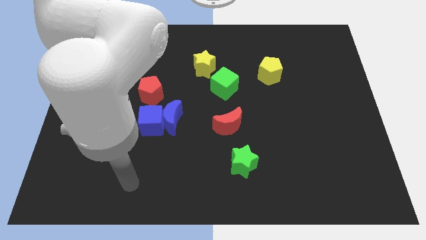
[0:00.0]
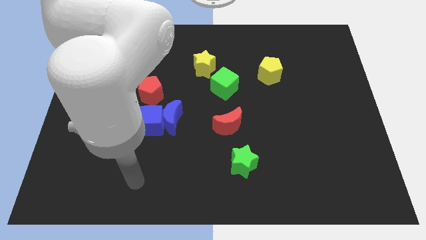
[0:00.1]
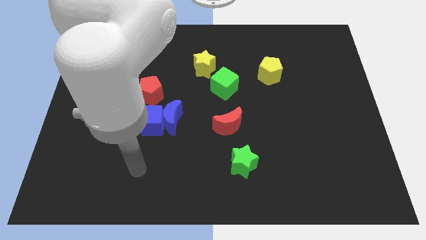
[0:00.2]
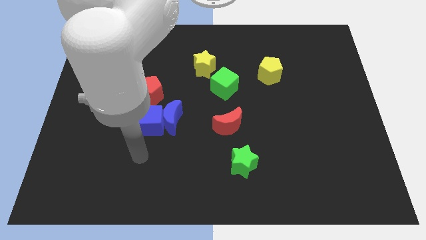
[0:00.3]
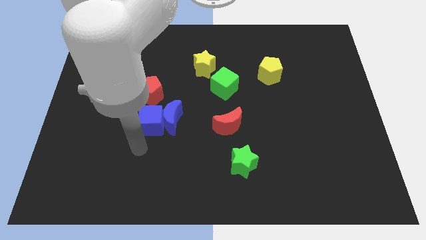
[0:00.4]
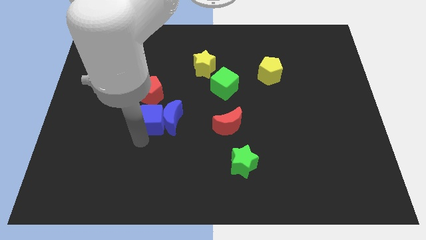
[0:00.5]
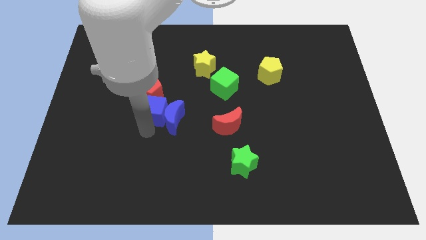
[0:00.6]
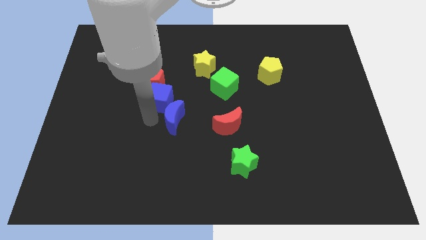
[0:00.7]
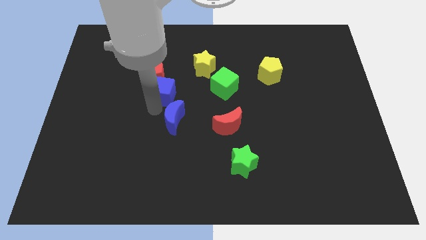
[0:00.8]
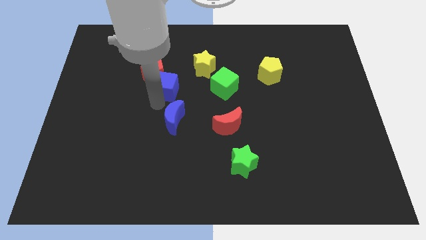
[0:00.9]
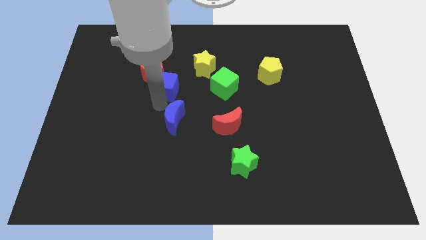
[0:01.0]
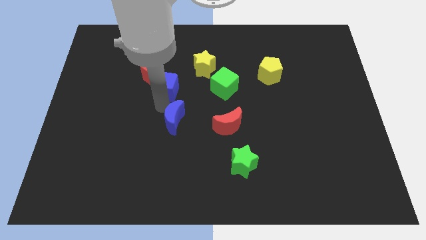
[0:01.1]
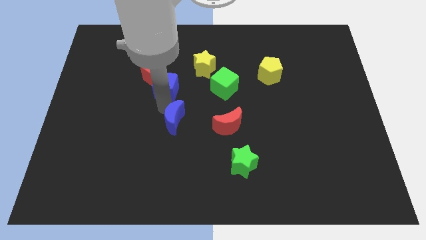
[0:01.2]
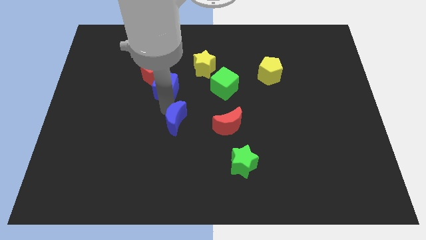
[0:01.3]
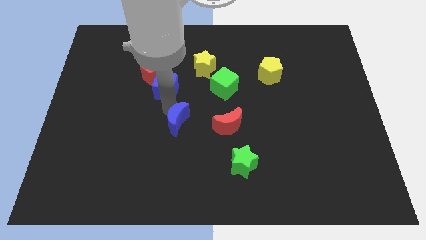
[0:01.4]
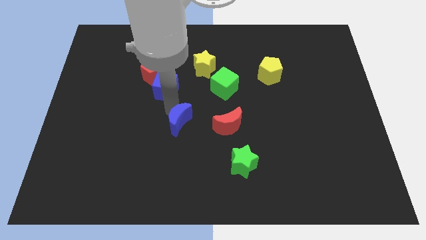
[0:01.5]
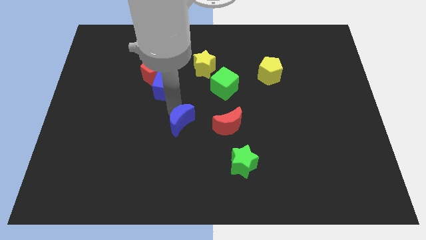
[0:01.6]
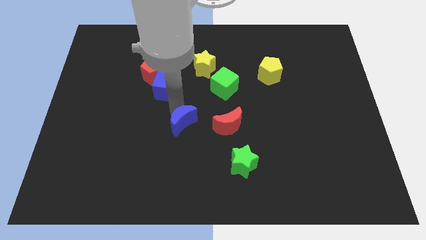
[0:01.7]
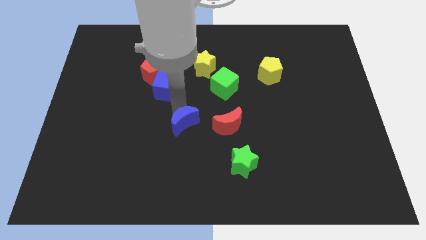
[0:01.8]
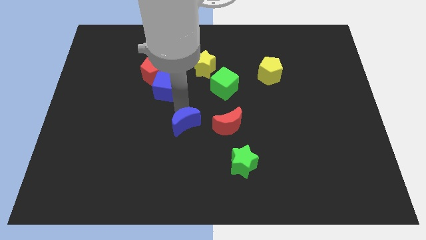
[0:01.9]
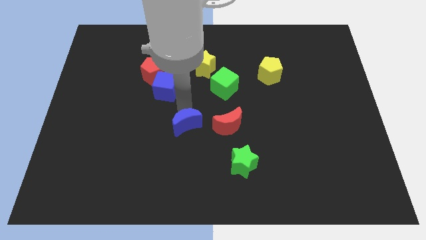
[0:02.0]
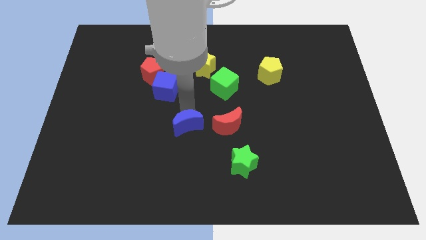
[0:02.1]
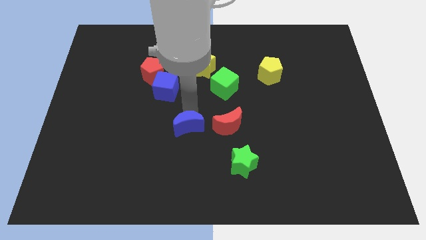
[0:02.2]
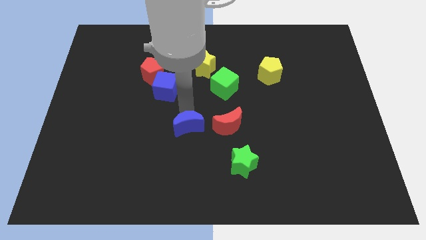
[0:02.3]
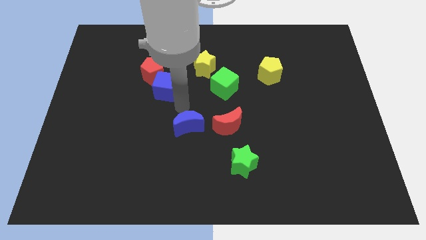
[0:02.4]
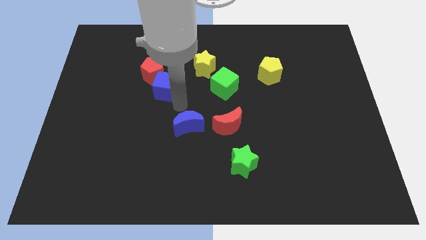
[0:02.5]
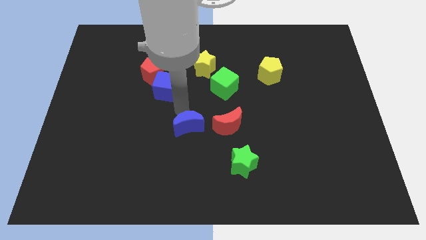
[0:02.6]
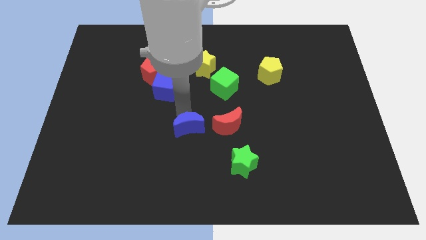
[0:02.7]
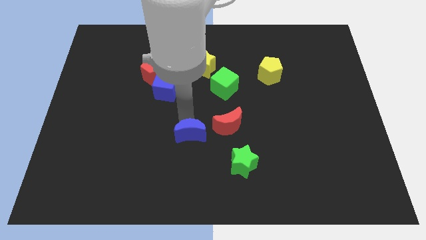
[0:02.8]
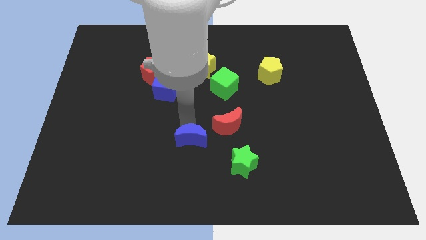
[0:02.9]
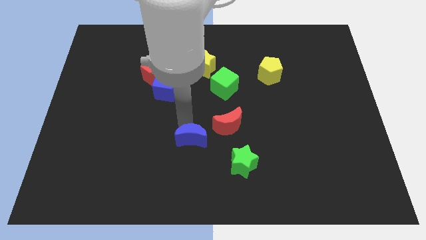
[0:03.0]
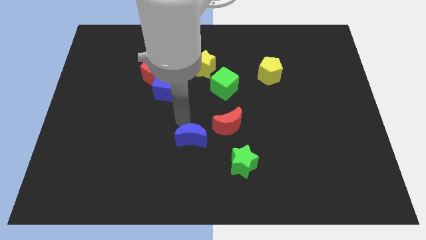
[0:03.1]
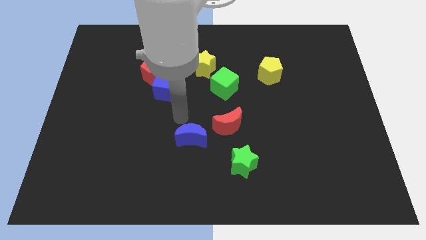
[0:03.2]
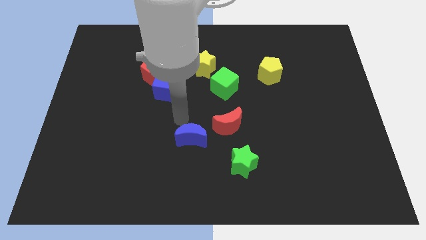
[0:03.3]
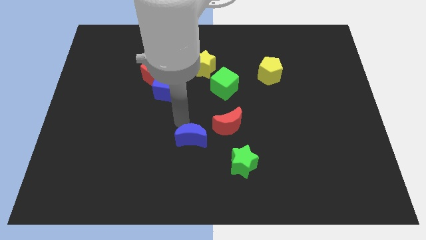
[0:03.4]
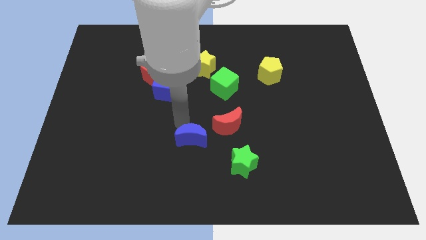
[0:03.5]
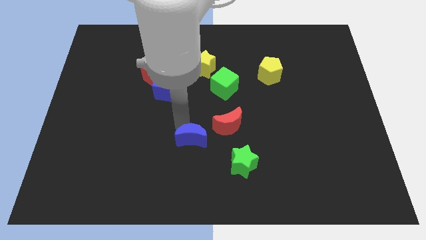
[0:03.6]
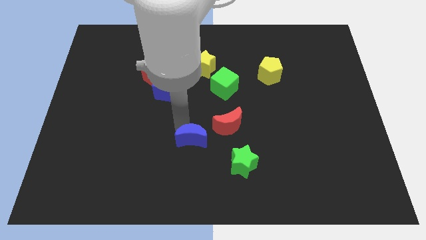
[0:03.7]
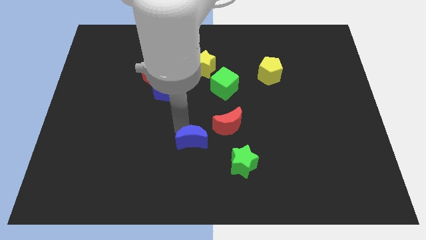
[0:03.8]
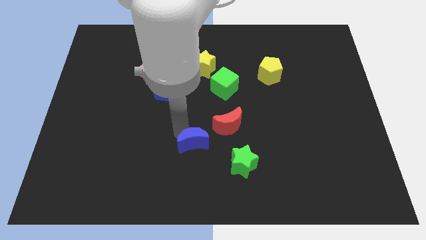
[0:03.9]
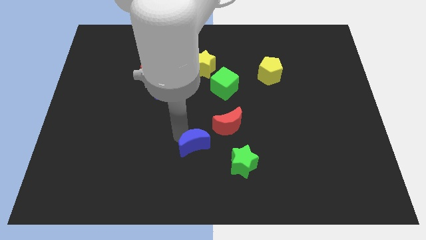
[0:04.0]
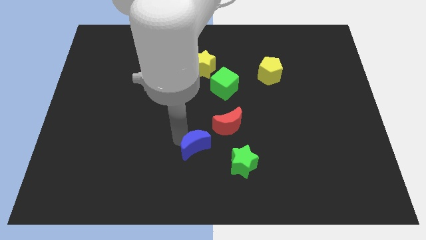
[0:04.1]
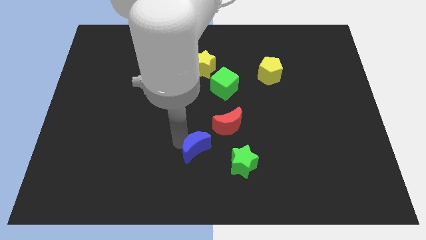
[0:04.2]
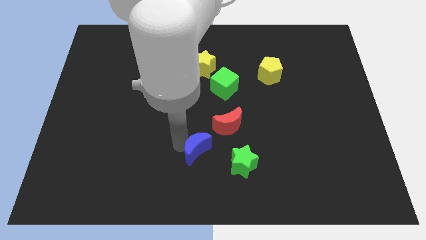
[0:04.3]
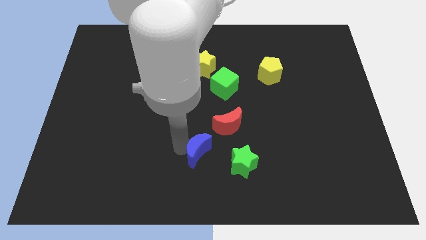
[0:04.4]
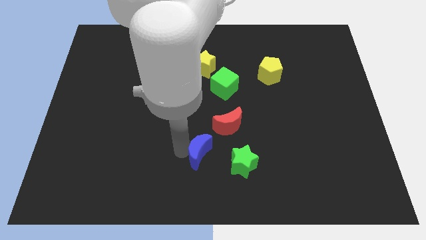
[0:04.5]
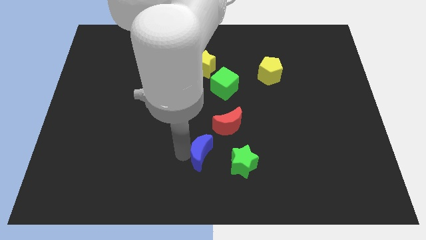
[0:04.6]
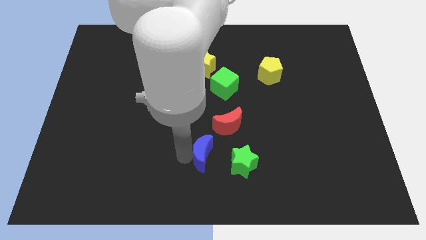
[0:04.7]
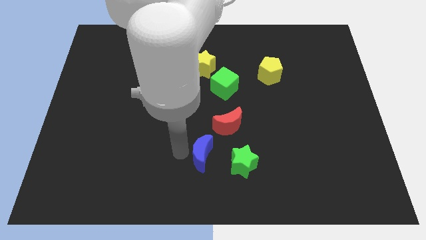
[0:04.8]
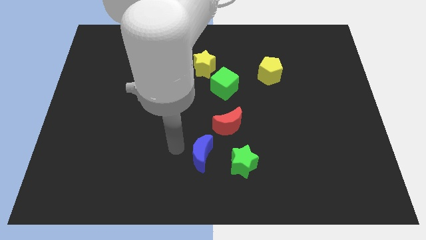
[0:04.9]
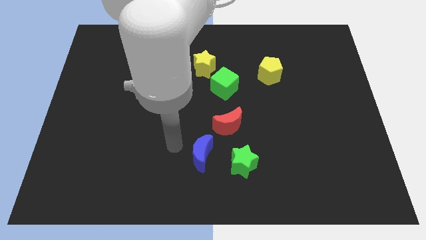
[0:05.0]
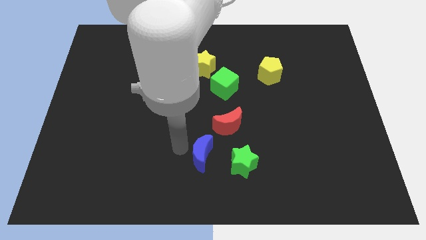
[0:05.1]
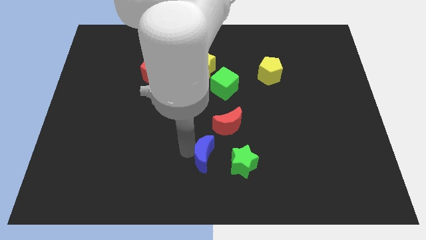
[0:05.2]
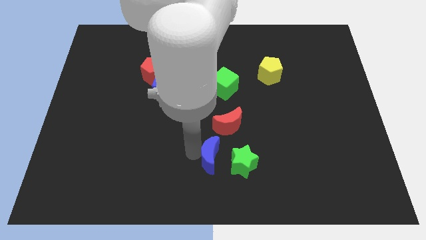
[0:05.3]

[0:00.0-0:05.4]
put the blue moon to the bottom side of the red moon

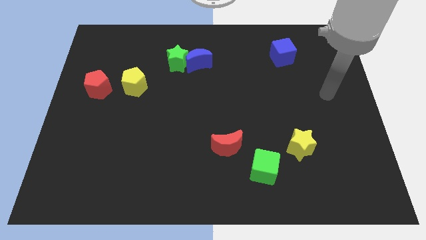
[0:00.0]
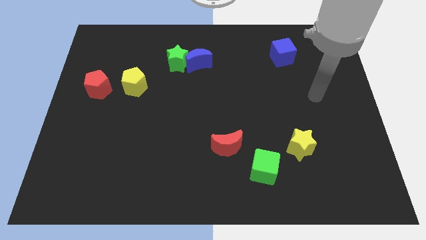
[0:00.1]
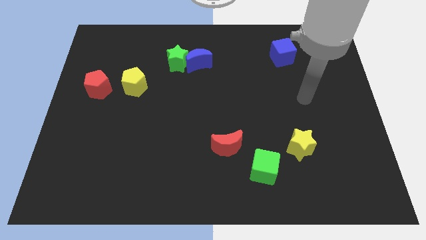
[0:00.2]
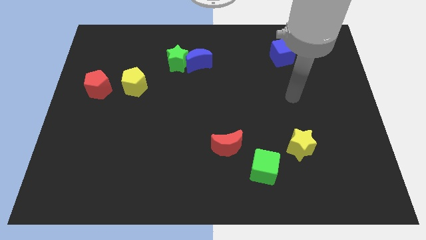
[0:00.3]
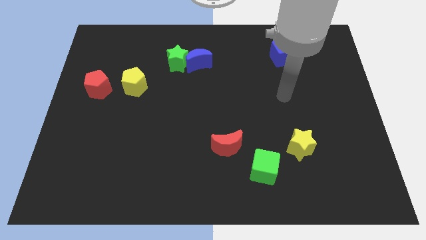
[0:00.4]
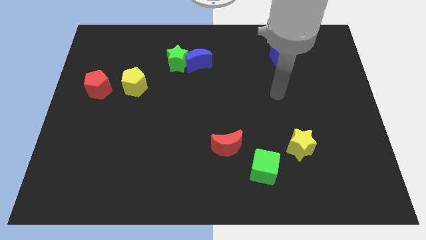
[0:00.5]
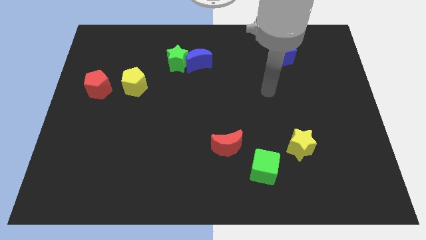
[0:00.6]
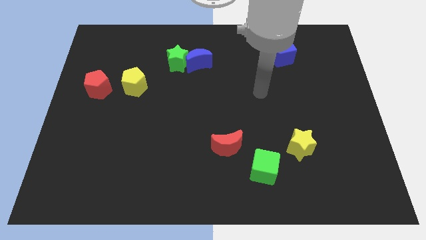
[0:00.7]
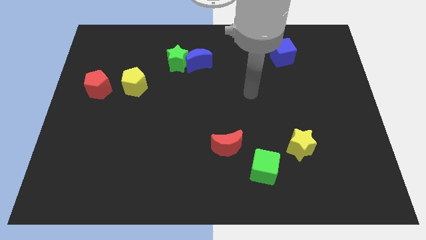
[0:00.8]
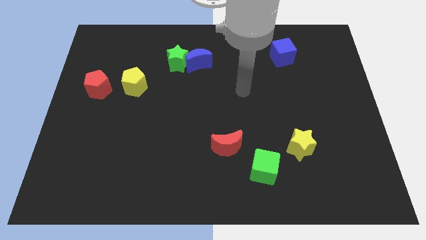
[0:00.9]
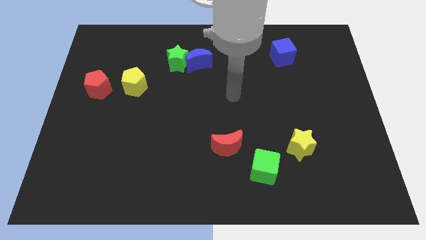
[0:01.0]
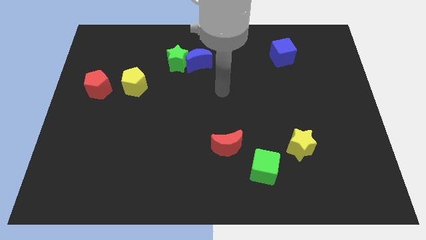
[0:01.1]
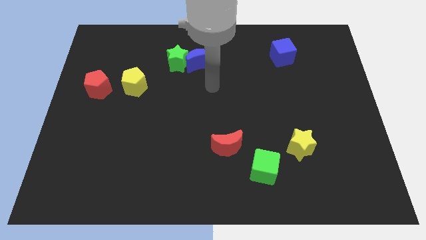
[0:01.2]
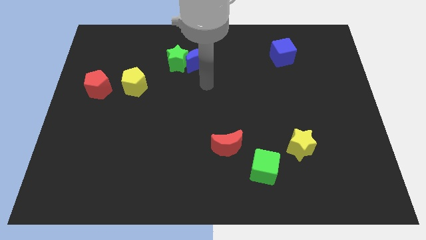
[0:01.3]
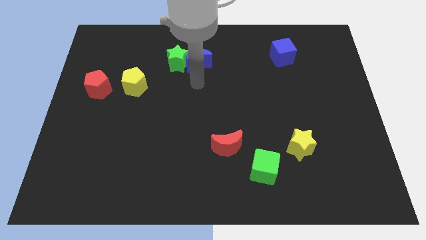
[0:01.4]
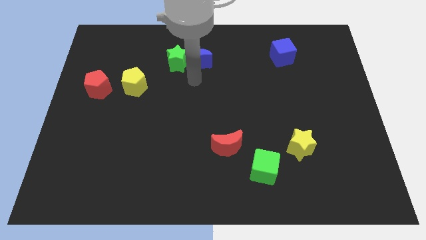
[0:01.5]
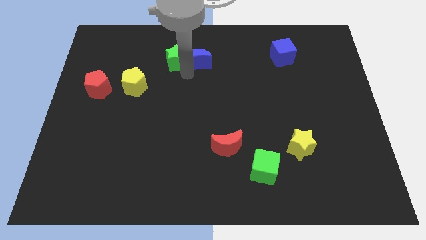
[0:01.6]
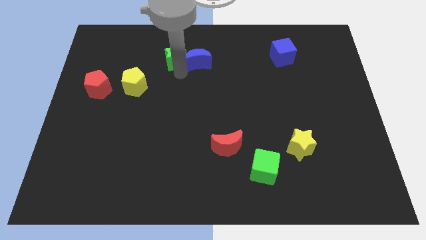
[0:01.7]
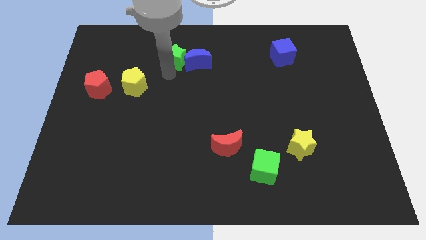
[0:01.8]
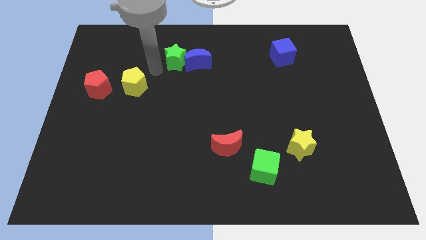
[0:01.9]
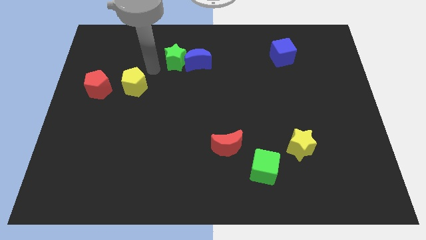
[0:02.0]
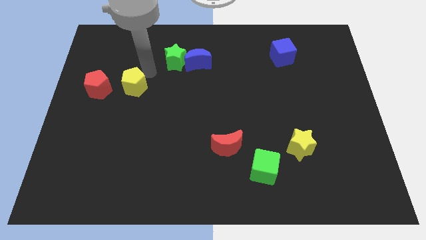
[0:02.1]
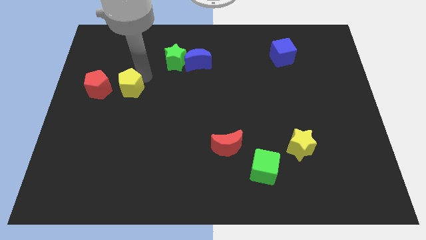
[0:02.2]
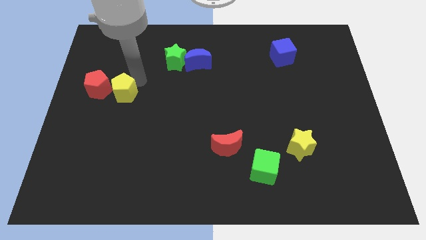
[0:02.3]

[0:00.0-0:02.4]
push the yellow pentagon to the bottom right side of the red pentagon
